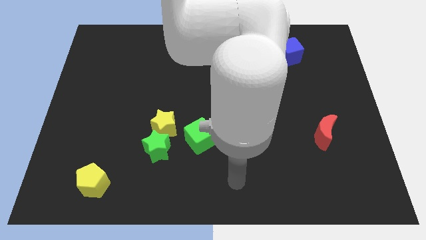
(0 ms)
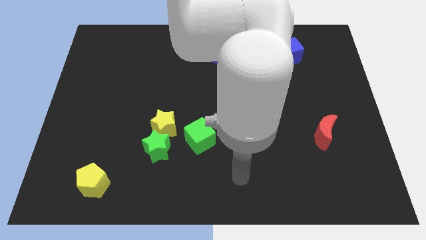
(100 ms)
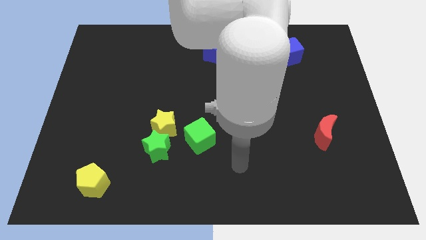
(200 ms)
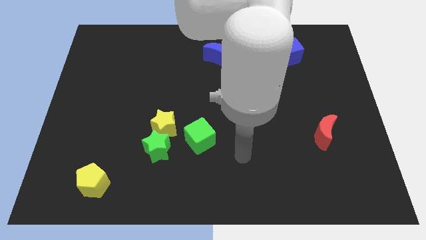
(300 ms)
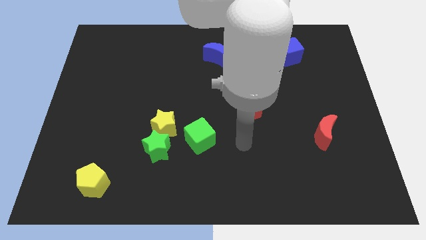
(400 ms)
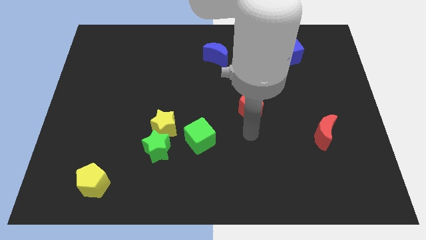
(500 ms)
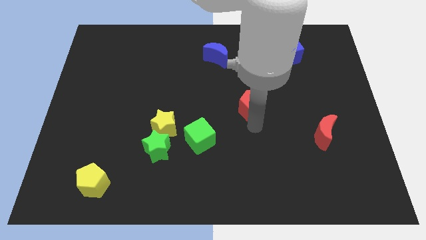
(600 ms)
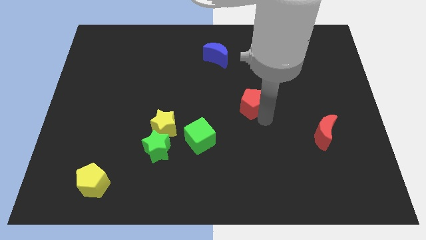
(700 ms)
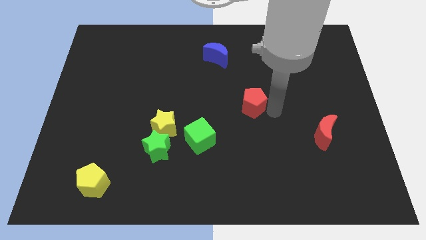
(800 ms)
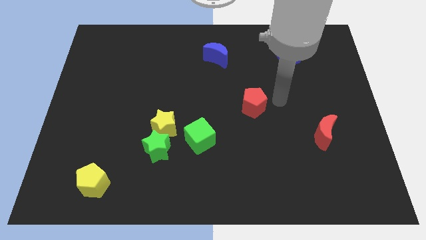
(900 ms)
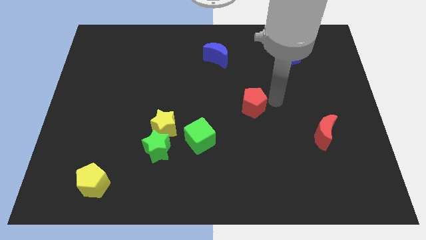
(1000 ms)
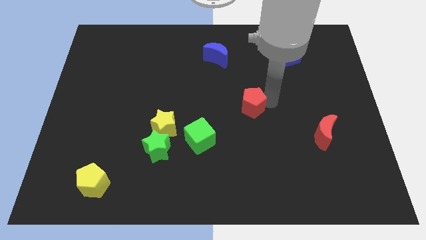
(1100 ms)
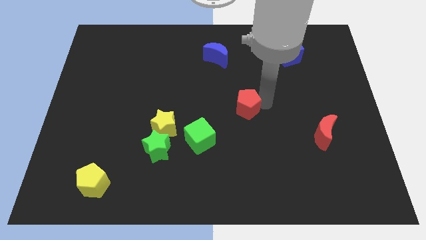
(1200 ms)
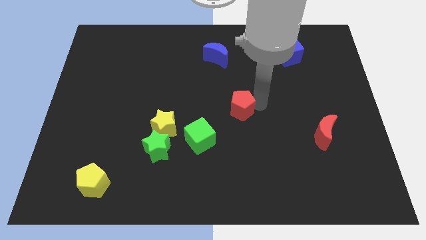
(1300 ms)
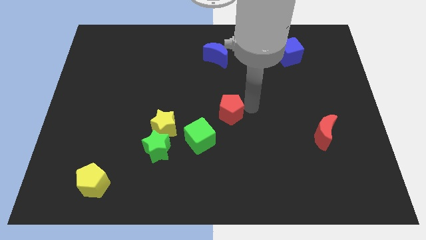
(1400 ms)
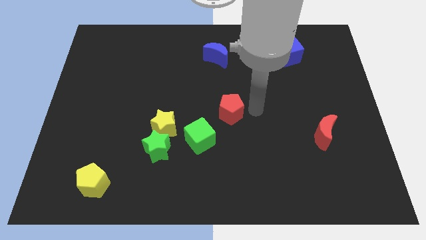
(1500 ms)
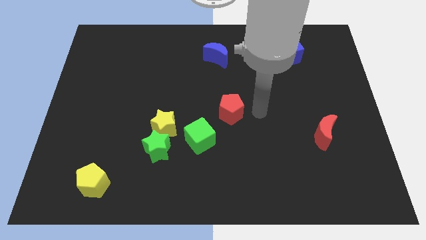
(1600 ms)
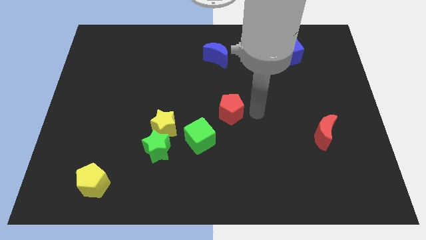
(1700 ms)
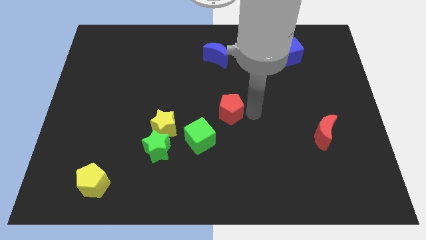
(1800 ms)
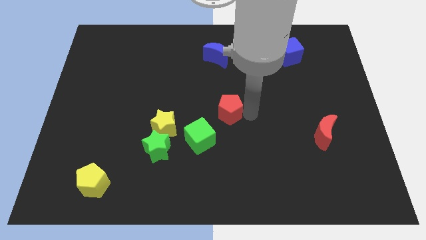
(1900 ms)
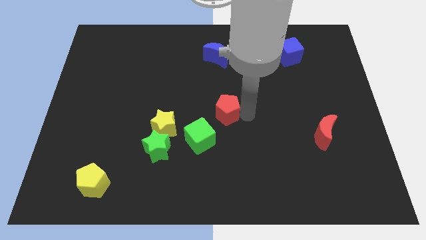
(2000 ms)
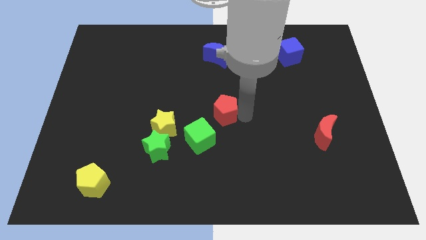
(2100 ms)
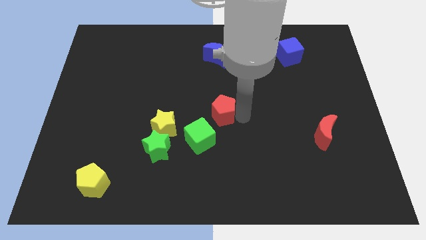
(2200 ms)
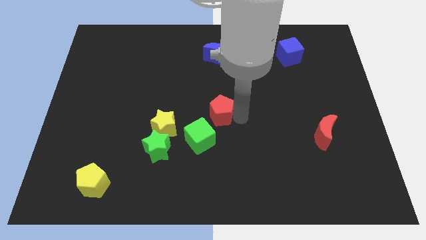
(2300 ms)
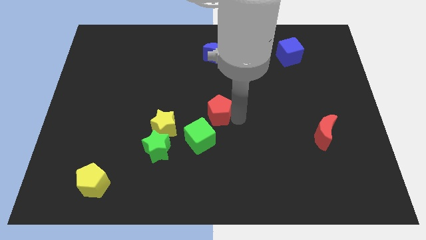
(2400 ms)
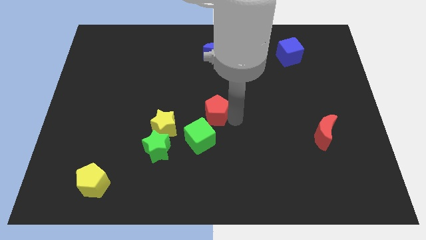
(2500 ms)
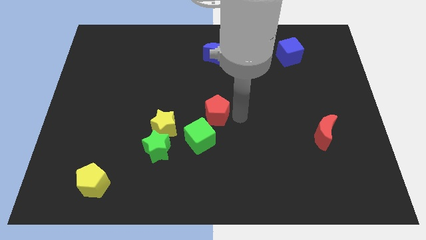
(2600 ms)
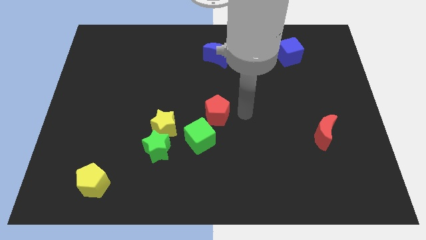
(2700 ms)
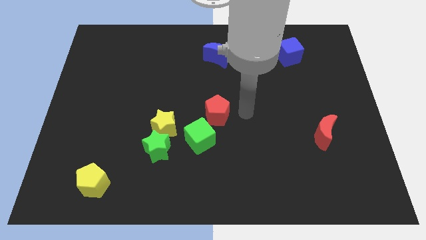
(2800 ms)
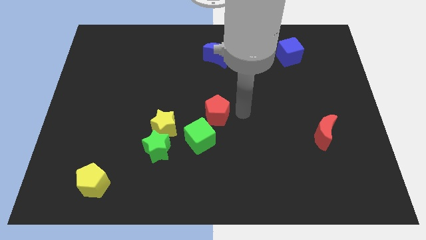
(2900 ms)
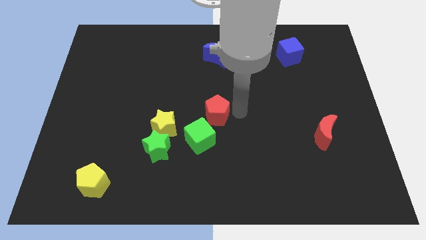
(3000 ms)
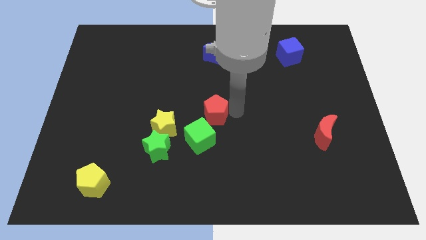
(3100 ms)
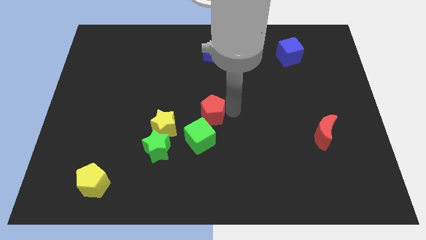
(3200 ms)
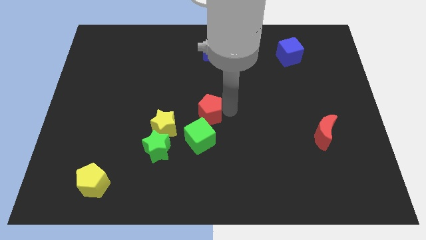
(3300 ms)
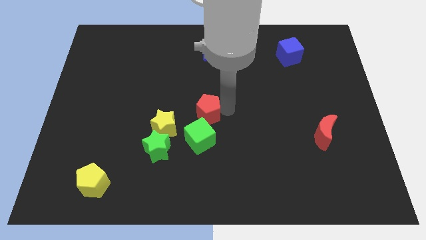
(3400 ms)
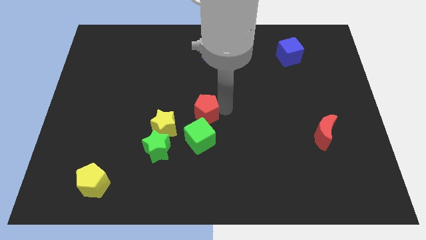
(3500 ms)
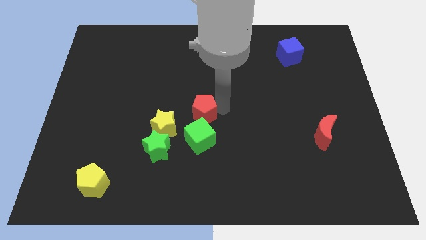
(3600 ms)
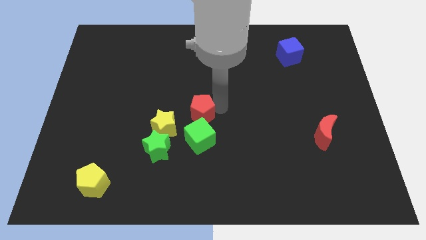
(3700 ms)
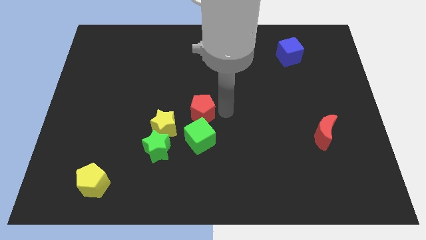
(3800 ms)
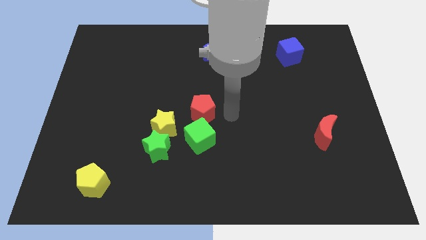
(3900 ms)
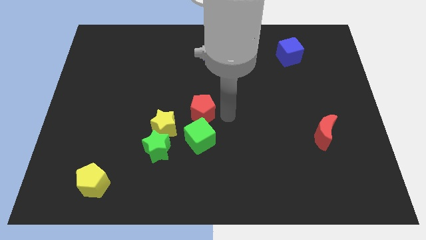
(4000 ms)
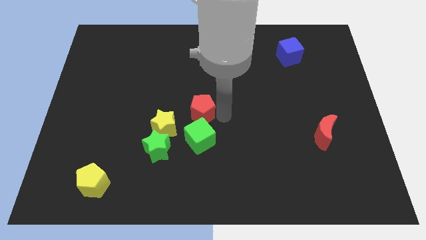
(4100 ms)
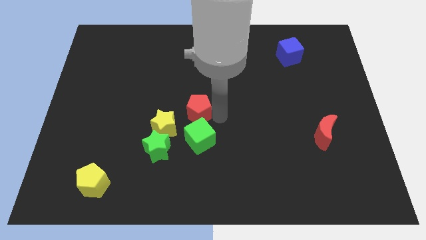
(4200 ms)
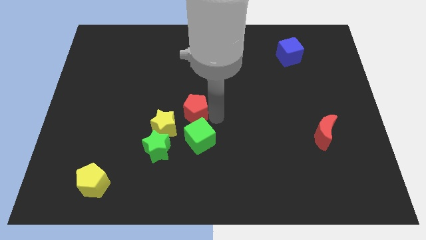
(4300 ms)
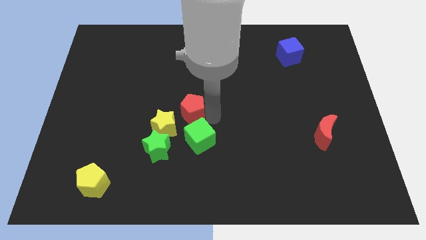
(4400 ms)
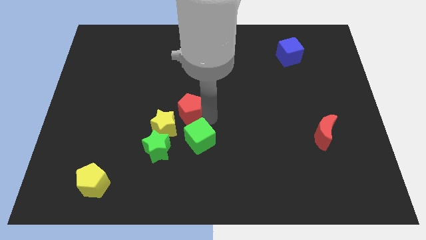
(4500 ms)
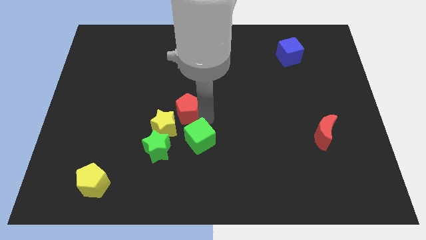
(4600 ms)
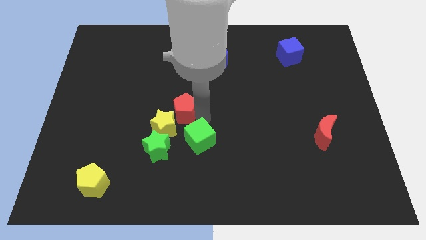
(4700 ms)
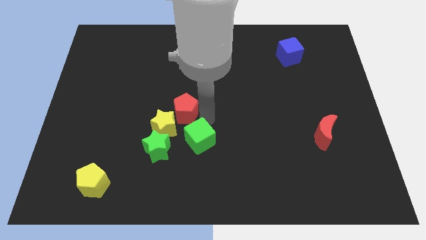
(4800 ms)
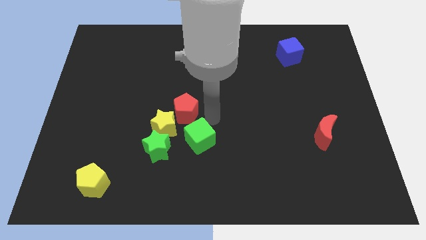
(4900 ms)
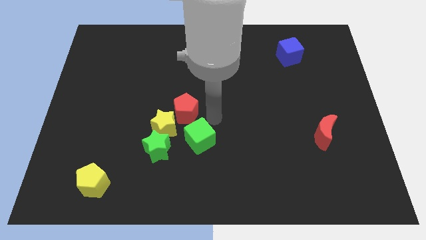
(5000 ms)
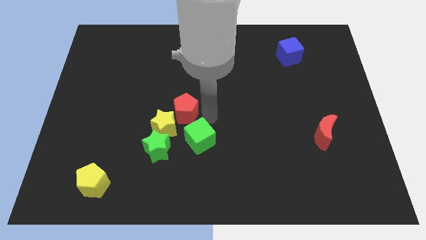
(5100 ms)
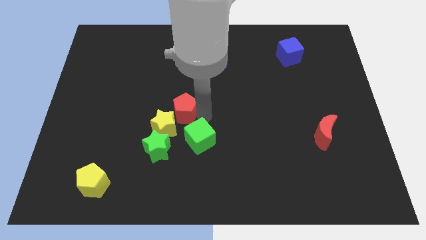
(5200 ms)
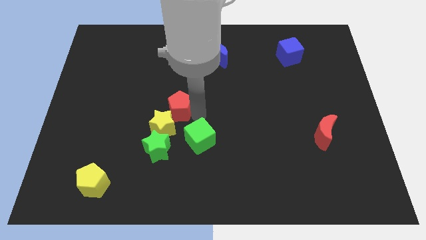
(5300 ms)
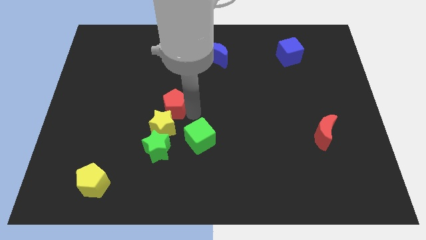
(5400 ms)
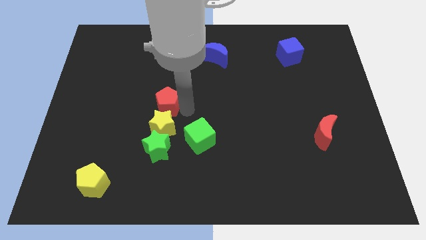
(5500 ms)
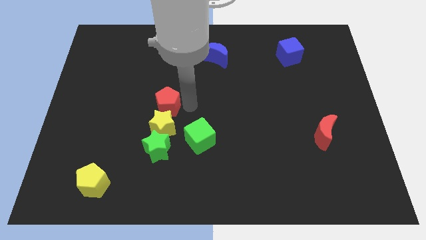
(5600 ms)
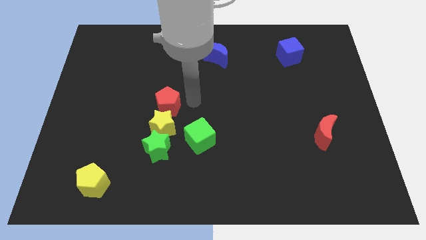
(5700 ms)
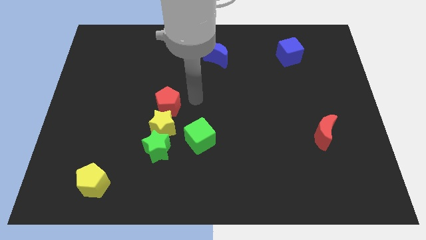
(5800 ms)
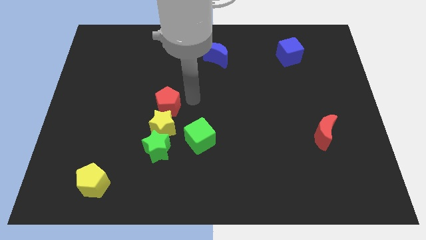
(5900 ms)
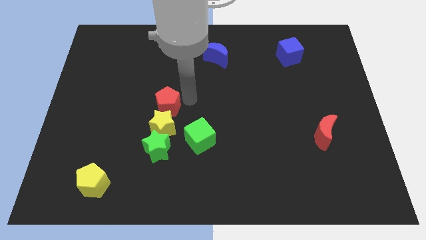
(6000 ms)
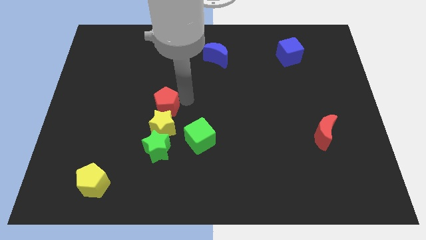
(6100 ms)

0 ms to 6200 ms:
slide the red pentagon to the left

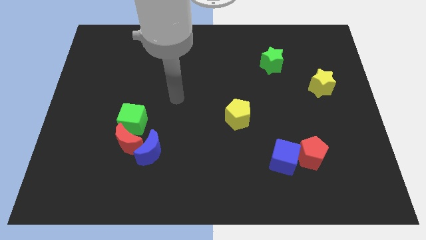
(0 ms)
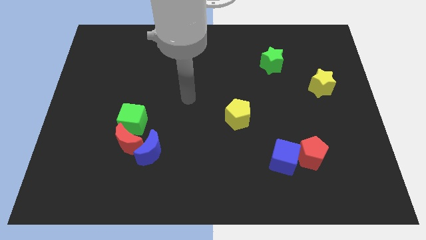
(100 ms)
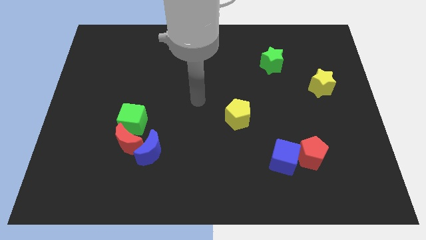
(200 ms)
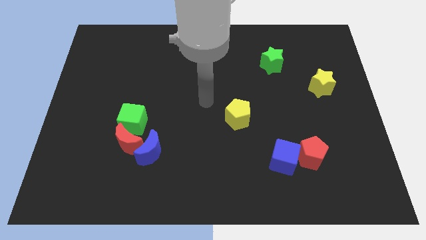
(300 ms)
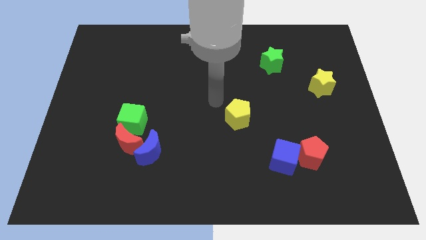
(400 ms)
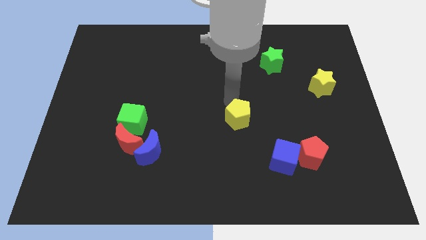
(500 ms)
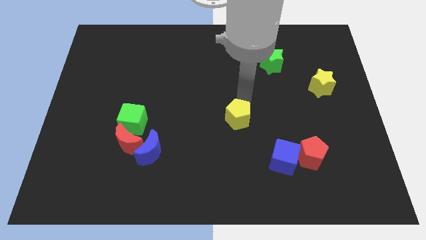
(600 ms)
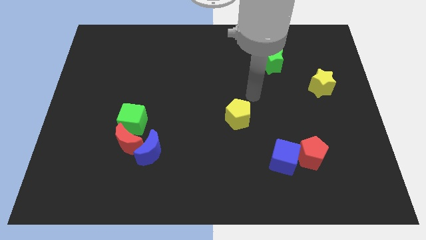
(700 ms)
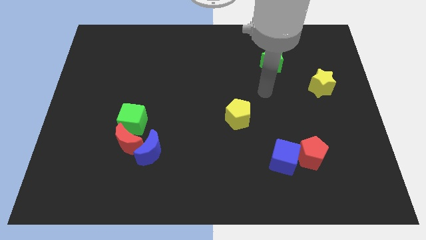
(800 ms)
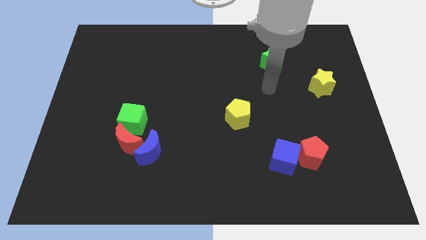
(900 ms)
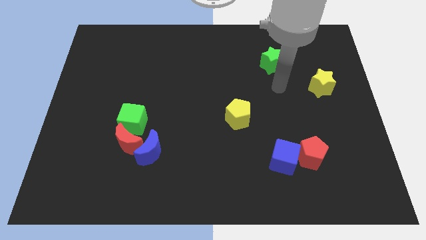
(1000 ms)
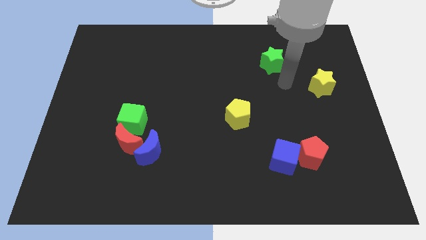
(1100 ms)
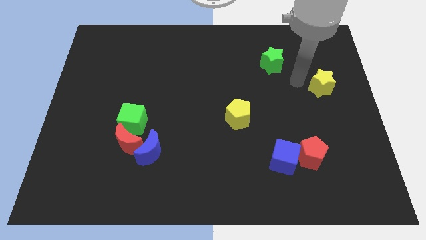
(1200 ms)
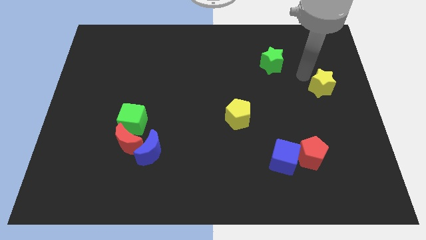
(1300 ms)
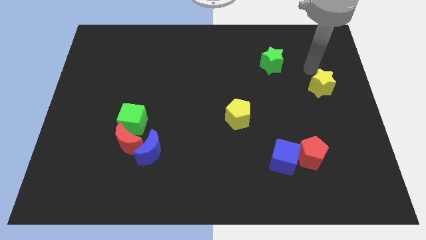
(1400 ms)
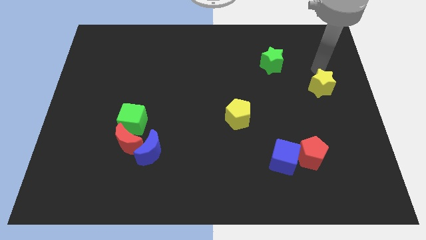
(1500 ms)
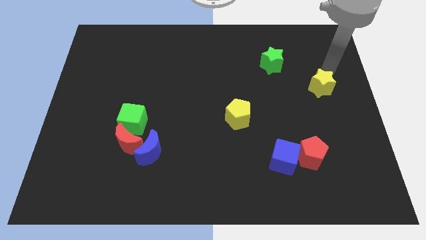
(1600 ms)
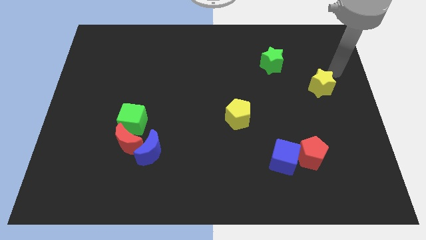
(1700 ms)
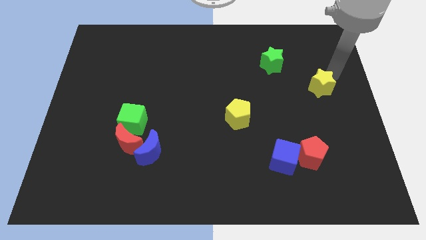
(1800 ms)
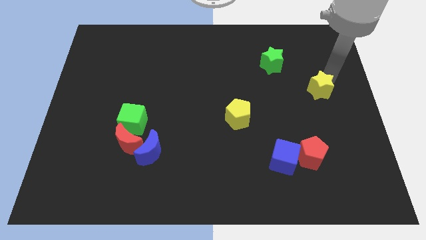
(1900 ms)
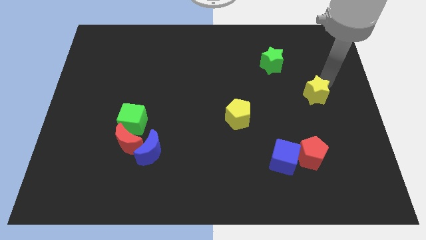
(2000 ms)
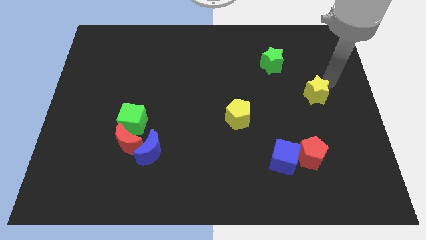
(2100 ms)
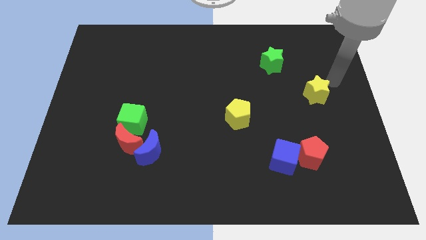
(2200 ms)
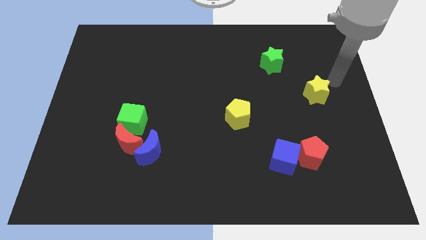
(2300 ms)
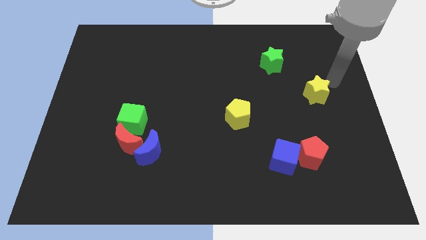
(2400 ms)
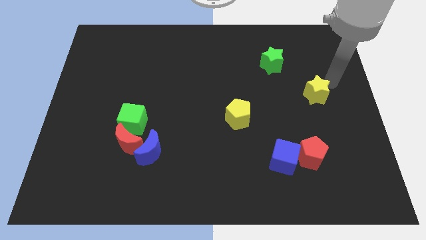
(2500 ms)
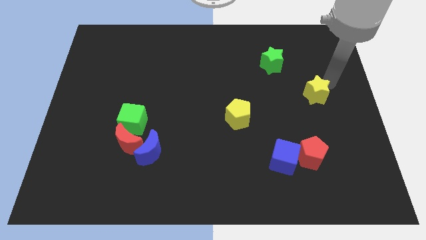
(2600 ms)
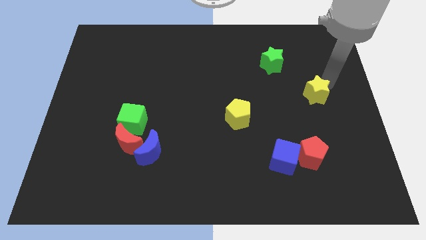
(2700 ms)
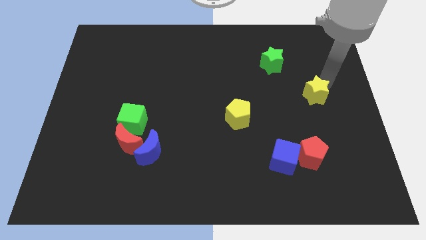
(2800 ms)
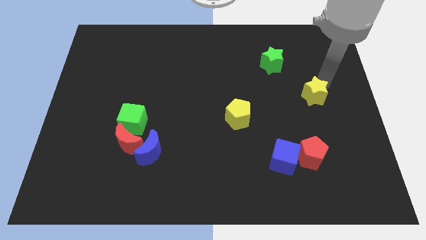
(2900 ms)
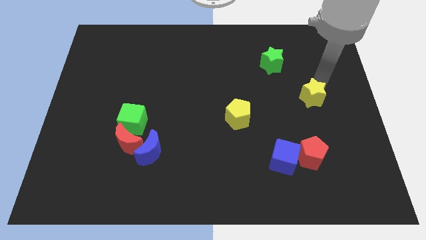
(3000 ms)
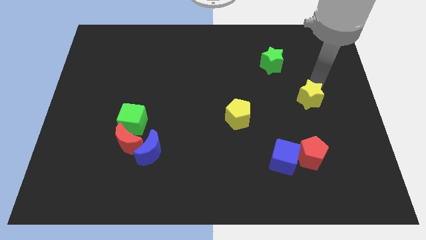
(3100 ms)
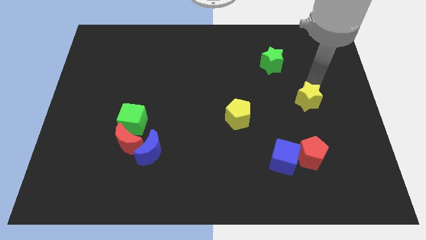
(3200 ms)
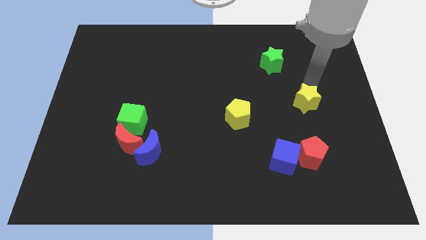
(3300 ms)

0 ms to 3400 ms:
push the yellow star downwards and left a little
